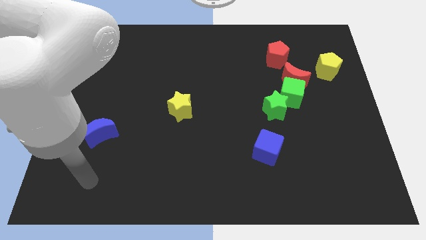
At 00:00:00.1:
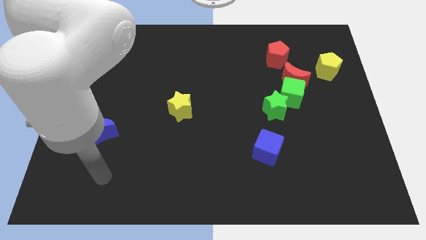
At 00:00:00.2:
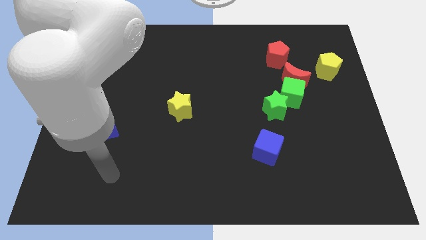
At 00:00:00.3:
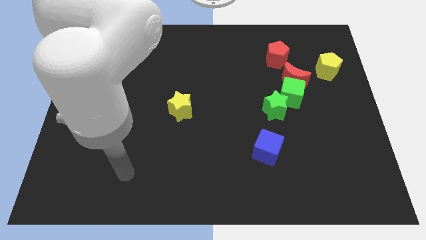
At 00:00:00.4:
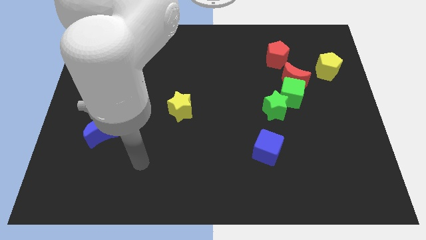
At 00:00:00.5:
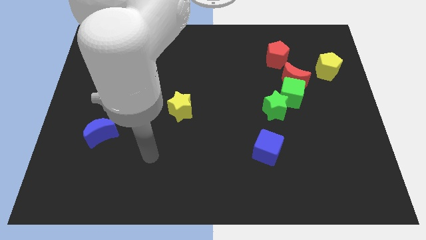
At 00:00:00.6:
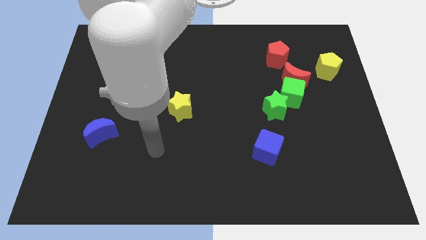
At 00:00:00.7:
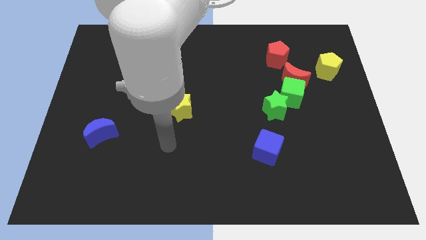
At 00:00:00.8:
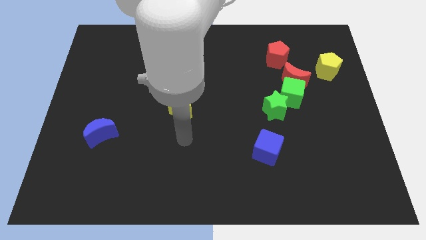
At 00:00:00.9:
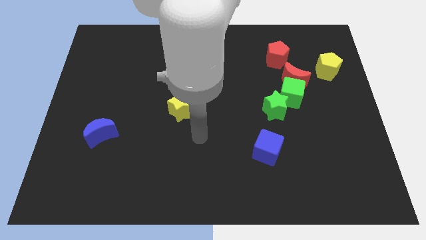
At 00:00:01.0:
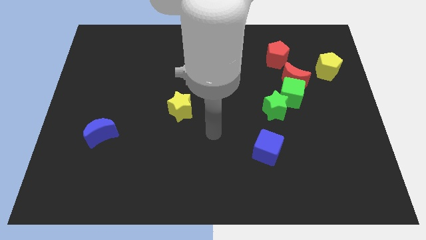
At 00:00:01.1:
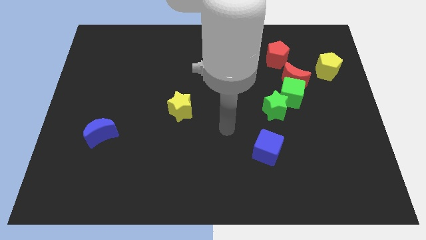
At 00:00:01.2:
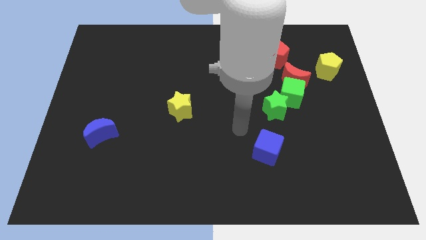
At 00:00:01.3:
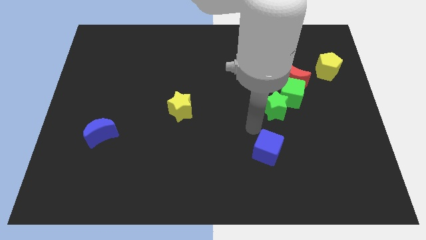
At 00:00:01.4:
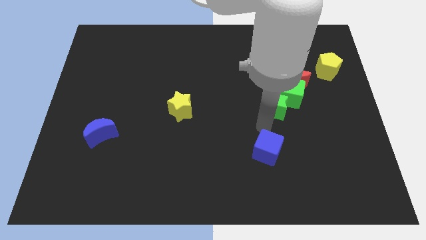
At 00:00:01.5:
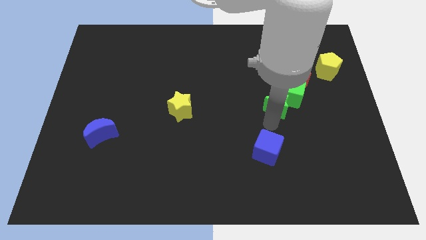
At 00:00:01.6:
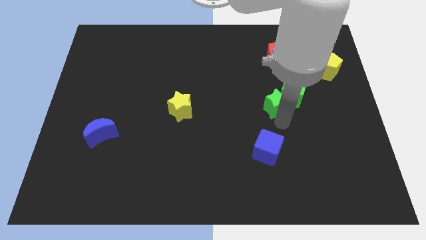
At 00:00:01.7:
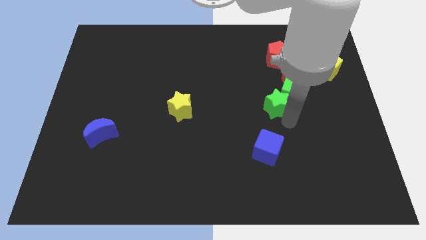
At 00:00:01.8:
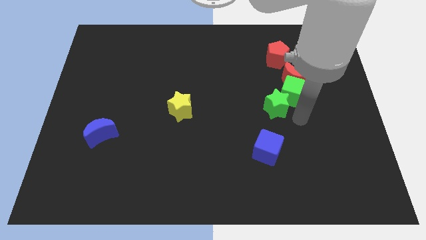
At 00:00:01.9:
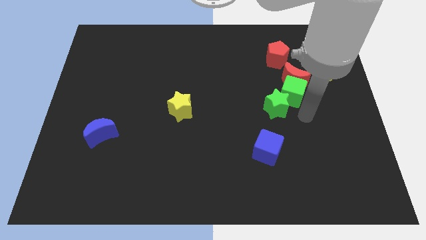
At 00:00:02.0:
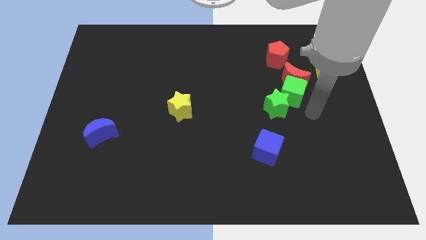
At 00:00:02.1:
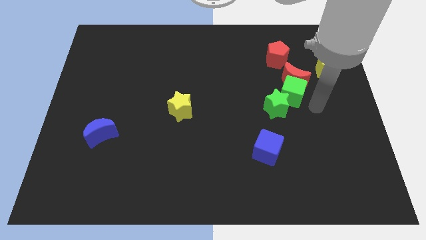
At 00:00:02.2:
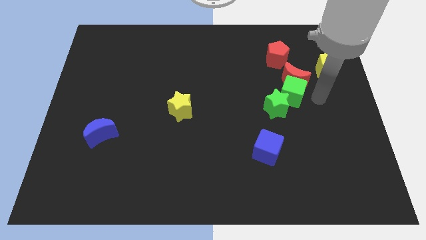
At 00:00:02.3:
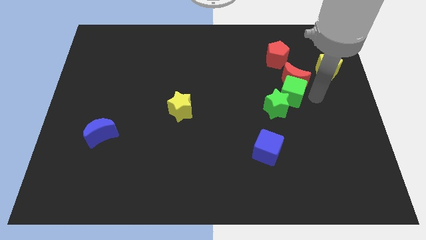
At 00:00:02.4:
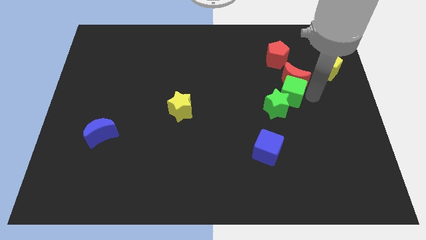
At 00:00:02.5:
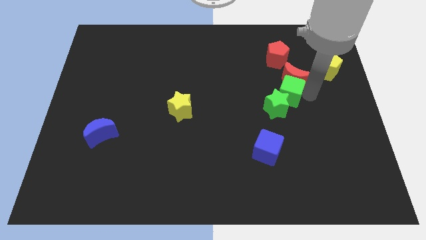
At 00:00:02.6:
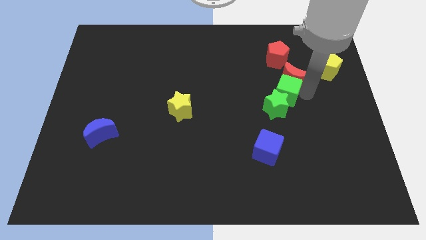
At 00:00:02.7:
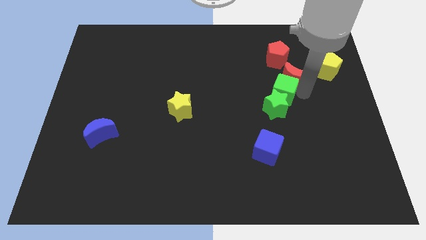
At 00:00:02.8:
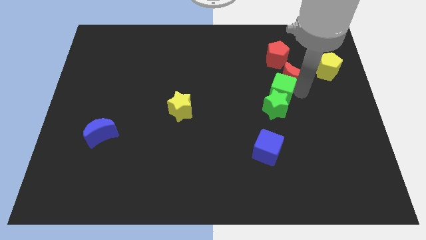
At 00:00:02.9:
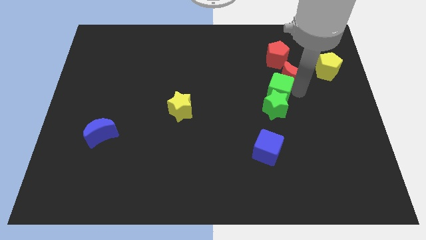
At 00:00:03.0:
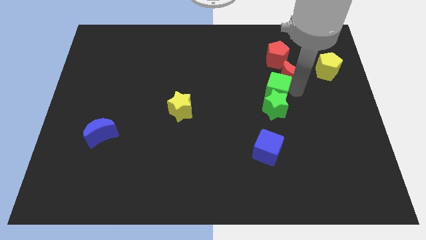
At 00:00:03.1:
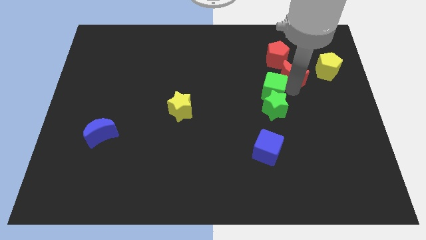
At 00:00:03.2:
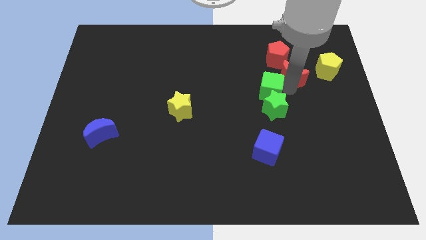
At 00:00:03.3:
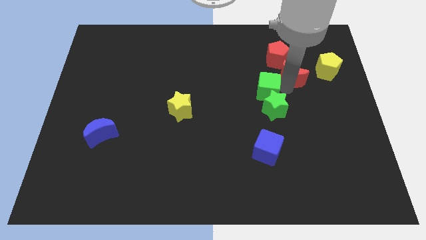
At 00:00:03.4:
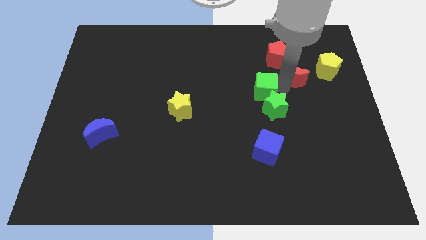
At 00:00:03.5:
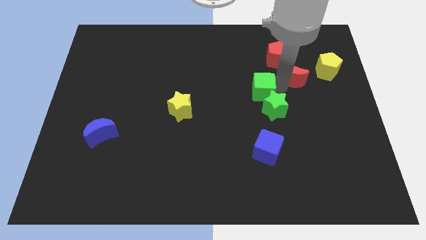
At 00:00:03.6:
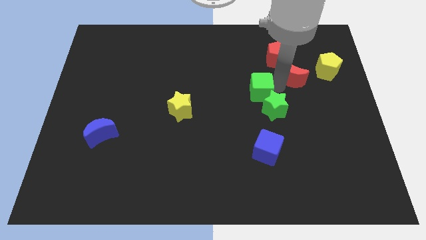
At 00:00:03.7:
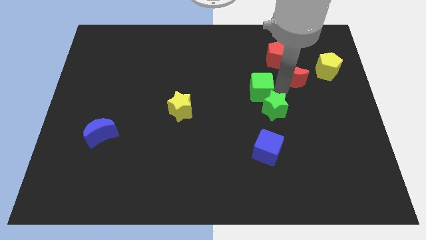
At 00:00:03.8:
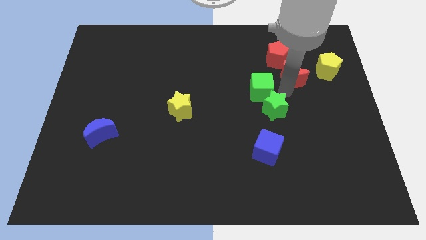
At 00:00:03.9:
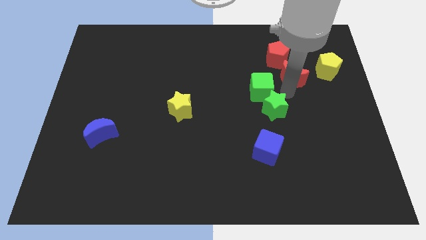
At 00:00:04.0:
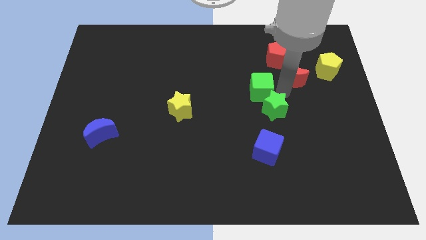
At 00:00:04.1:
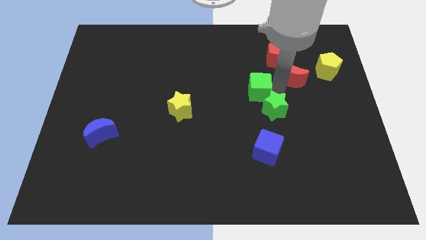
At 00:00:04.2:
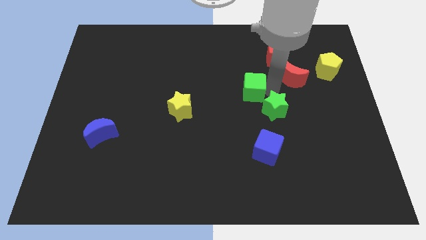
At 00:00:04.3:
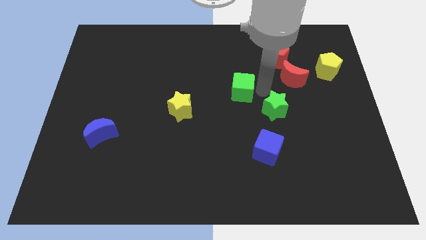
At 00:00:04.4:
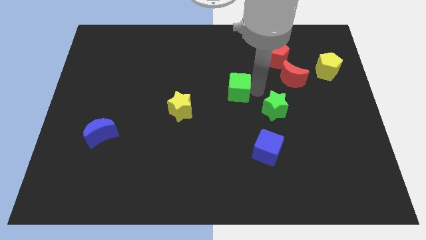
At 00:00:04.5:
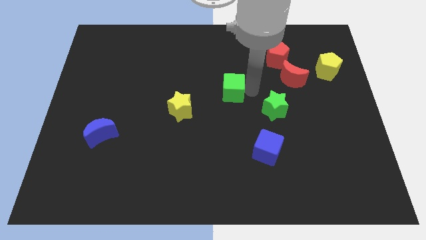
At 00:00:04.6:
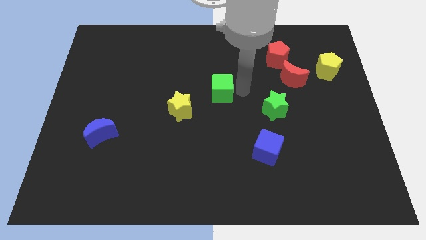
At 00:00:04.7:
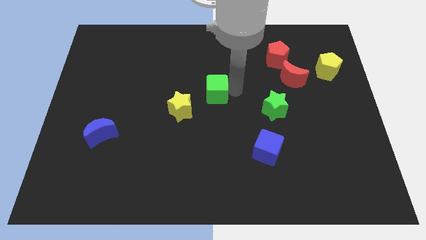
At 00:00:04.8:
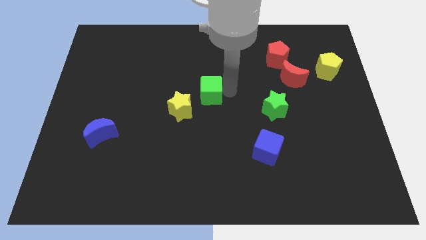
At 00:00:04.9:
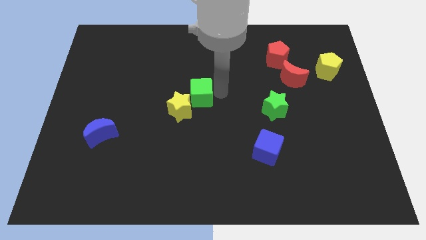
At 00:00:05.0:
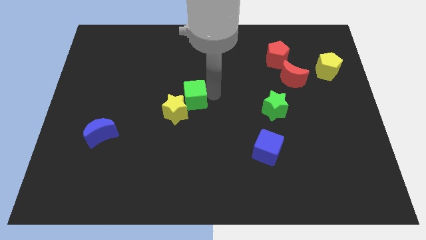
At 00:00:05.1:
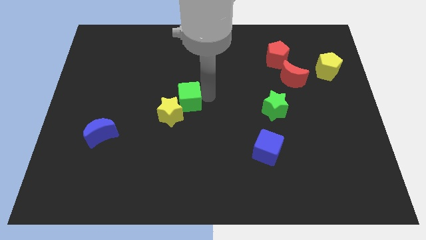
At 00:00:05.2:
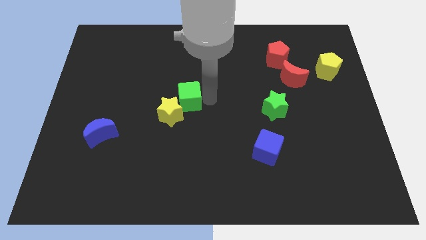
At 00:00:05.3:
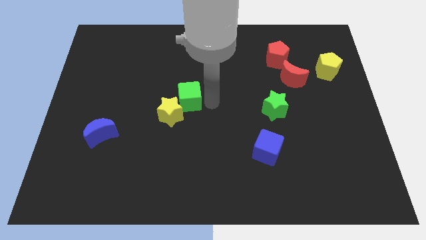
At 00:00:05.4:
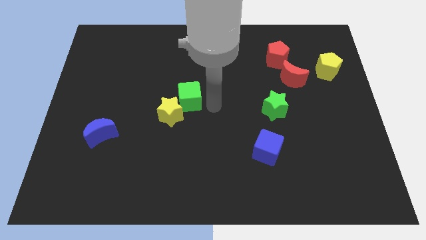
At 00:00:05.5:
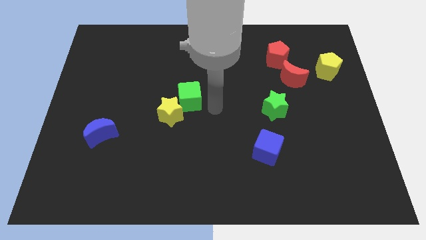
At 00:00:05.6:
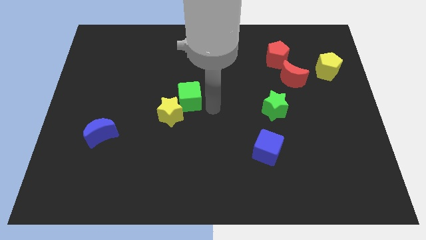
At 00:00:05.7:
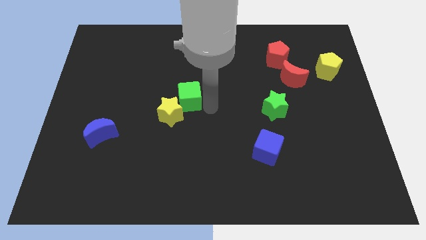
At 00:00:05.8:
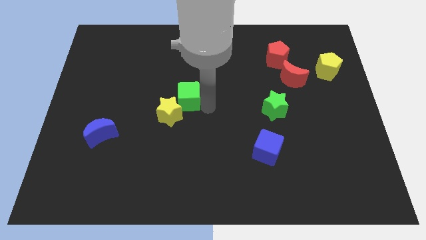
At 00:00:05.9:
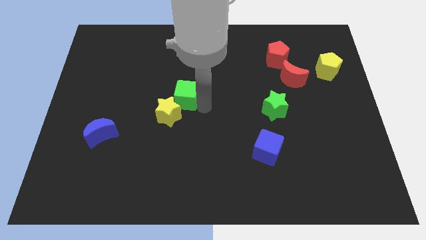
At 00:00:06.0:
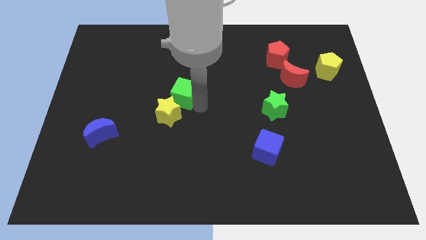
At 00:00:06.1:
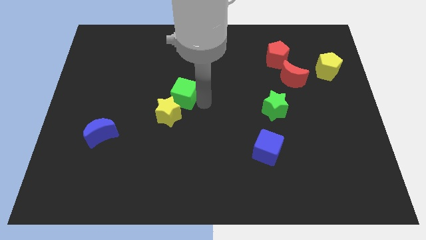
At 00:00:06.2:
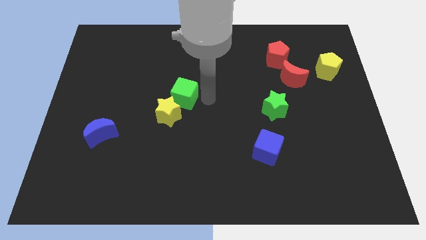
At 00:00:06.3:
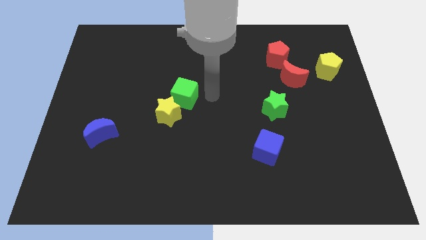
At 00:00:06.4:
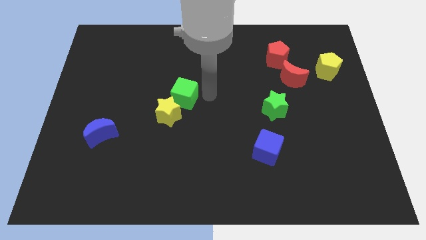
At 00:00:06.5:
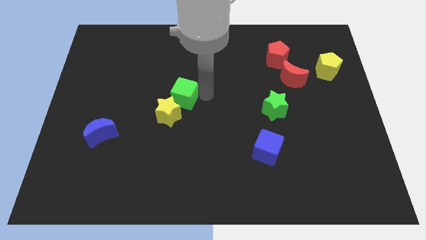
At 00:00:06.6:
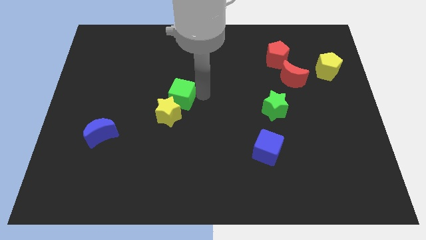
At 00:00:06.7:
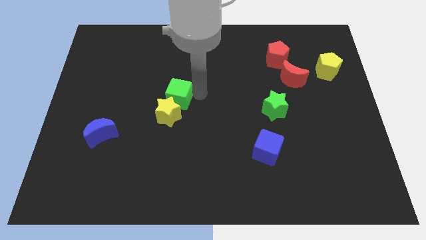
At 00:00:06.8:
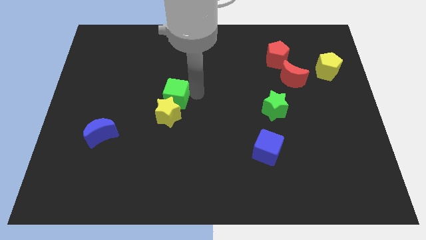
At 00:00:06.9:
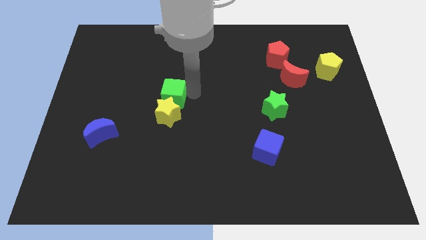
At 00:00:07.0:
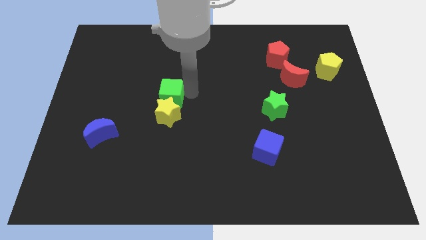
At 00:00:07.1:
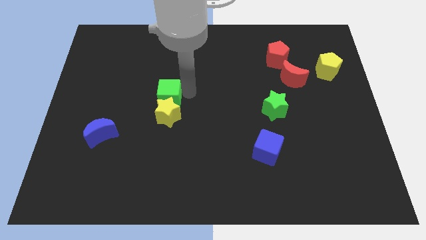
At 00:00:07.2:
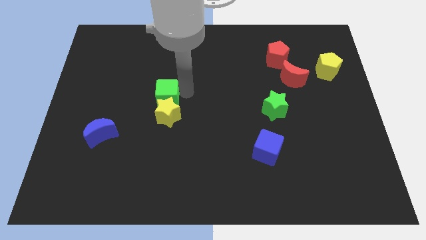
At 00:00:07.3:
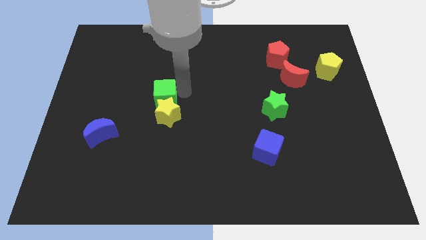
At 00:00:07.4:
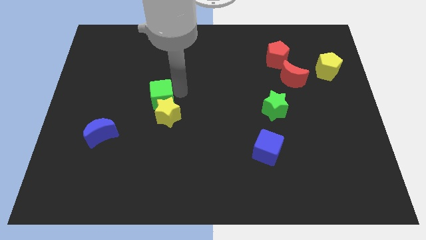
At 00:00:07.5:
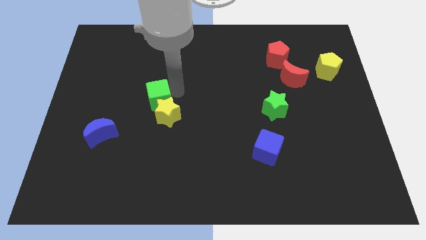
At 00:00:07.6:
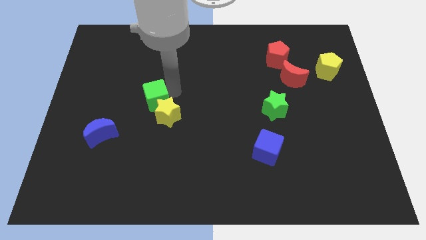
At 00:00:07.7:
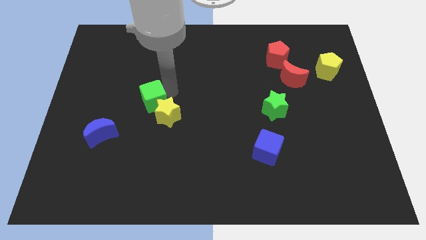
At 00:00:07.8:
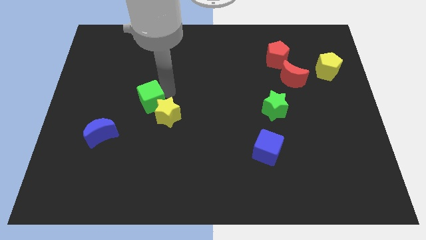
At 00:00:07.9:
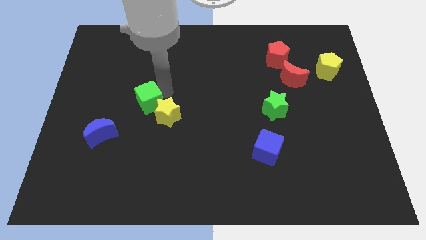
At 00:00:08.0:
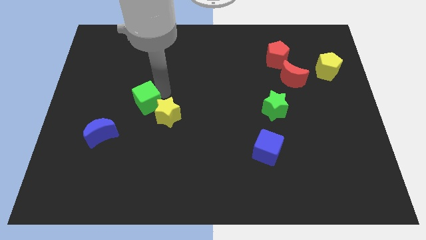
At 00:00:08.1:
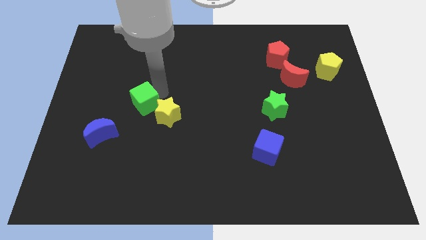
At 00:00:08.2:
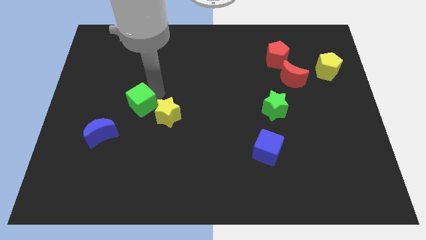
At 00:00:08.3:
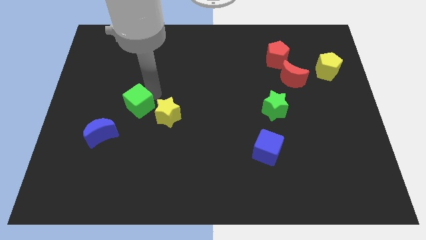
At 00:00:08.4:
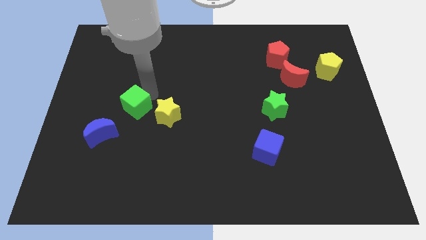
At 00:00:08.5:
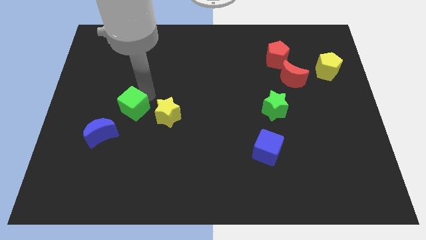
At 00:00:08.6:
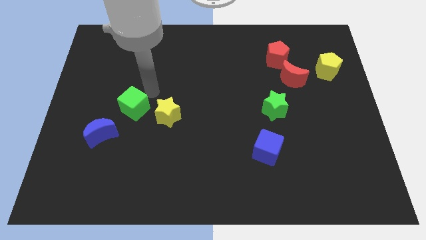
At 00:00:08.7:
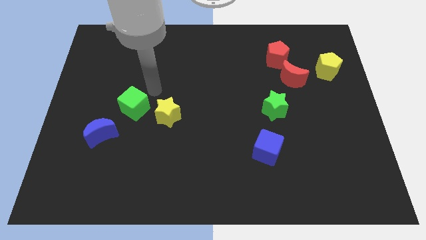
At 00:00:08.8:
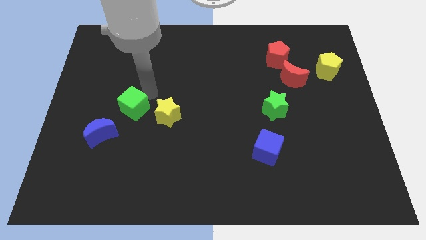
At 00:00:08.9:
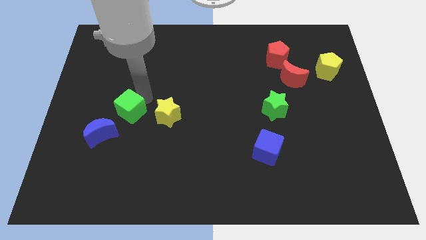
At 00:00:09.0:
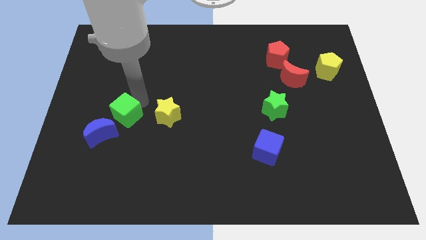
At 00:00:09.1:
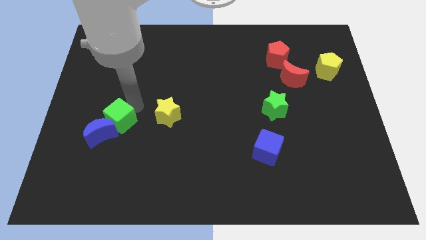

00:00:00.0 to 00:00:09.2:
push the green cube to the blue moon
